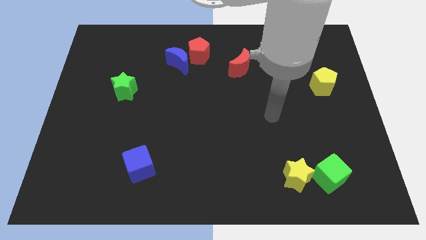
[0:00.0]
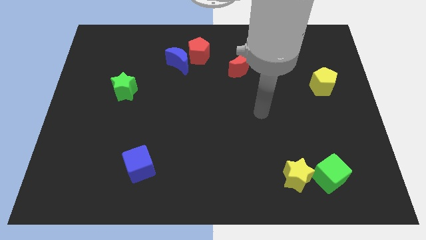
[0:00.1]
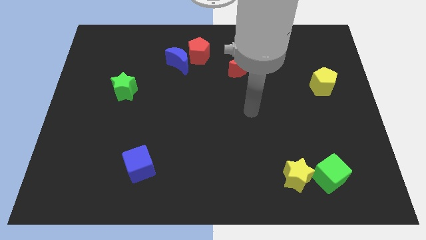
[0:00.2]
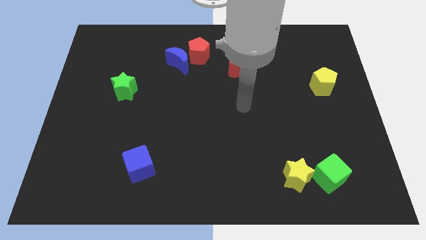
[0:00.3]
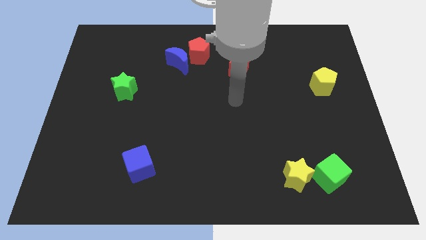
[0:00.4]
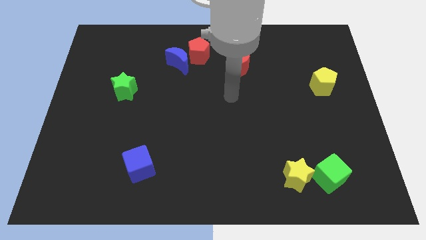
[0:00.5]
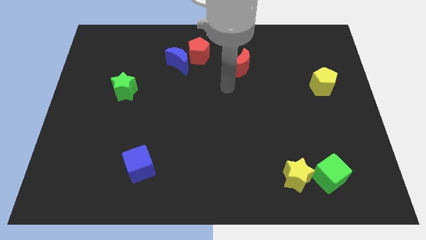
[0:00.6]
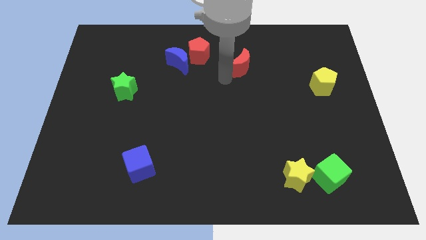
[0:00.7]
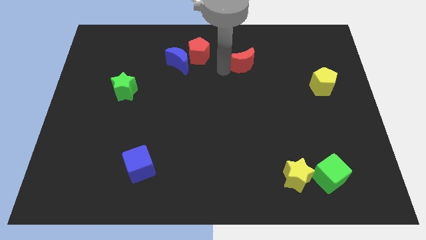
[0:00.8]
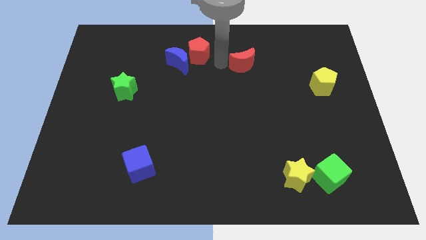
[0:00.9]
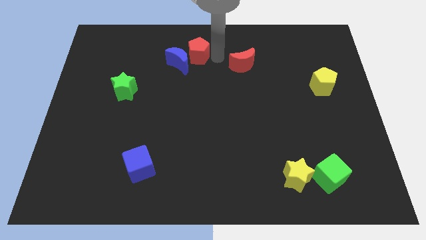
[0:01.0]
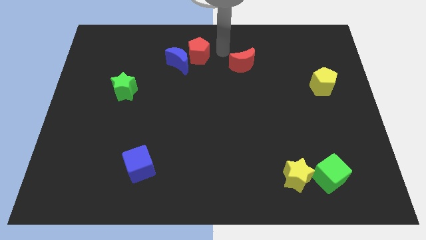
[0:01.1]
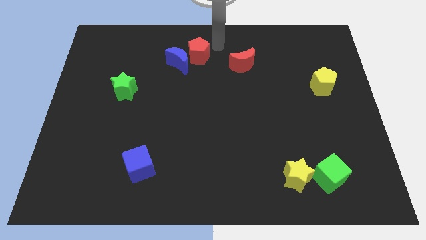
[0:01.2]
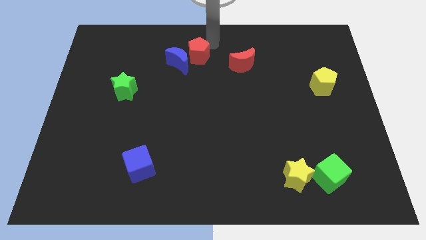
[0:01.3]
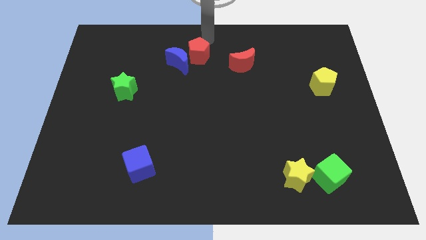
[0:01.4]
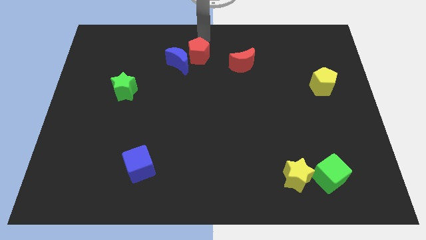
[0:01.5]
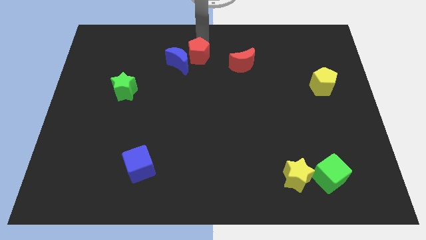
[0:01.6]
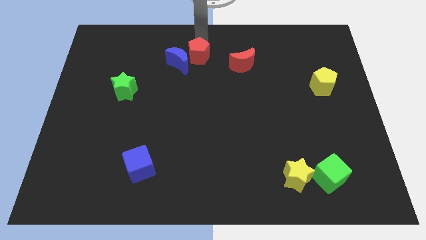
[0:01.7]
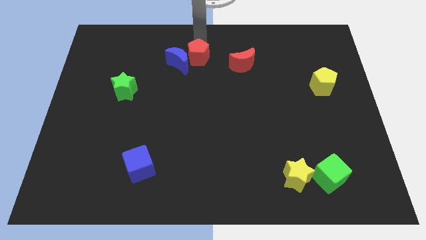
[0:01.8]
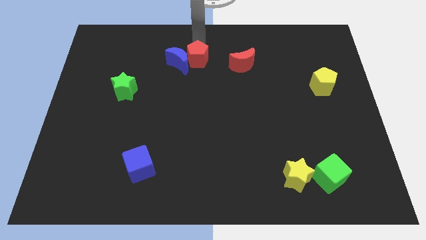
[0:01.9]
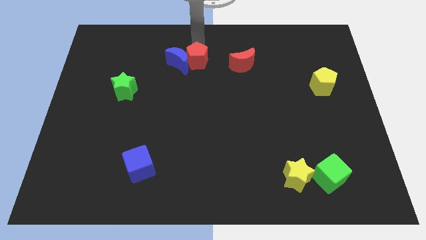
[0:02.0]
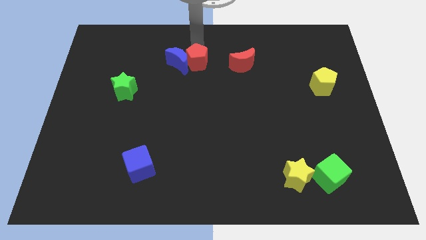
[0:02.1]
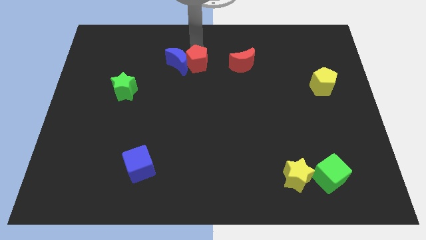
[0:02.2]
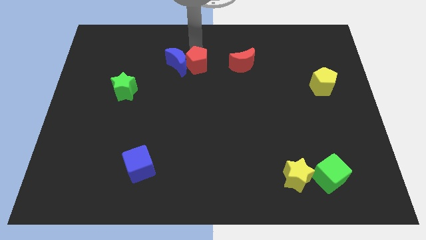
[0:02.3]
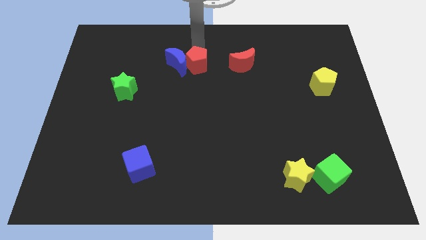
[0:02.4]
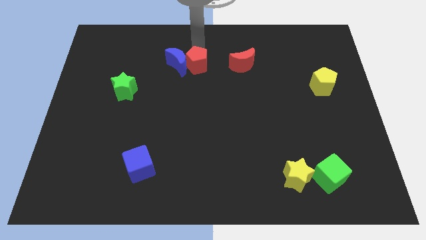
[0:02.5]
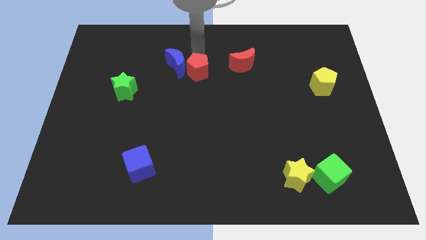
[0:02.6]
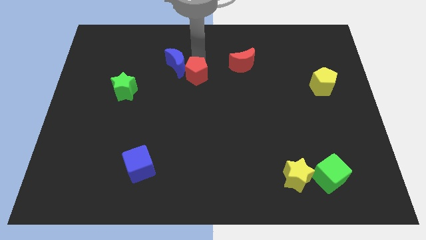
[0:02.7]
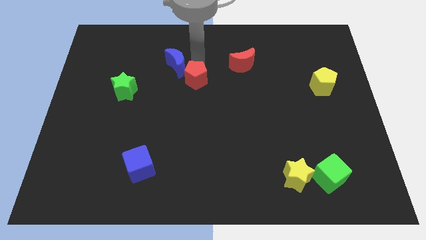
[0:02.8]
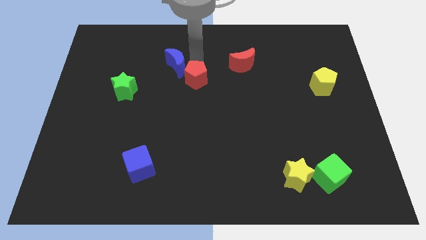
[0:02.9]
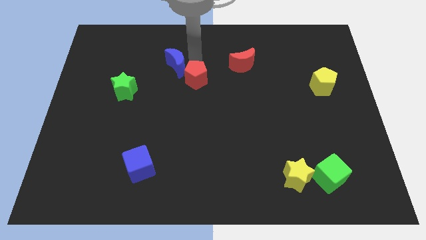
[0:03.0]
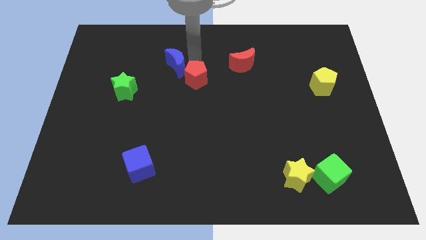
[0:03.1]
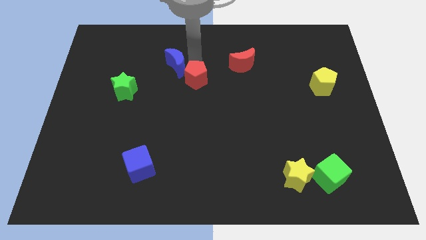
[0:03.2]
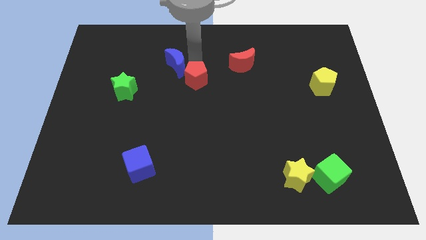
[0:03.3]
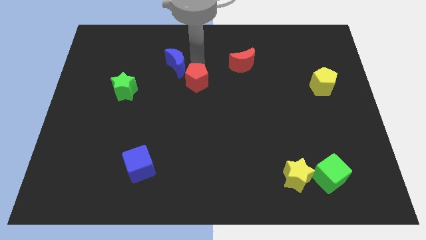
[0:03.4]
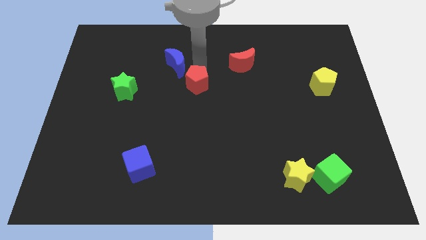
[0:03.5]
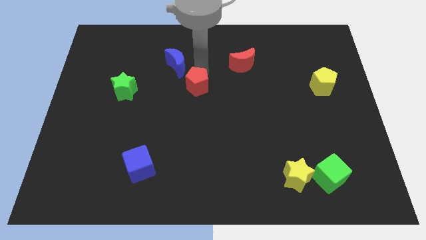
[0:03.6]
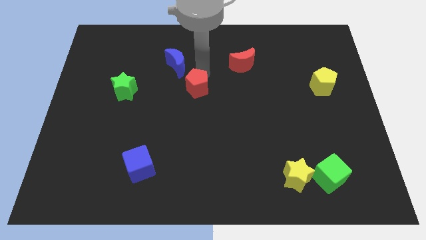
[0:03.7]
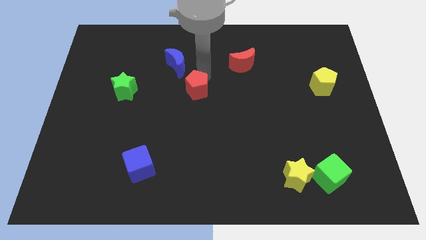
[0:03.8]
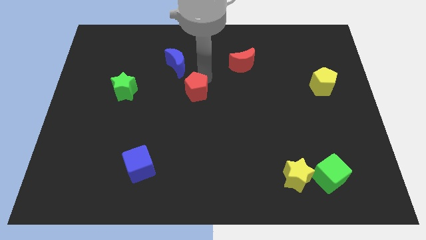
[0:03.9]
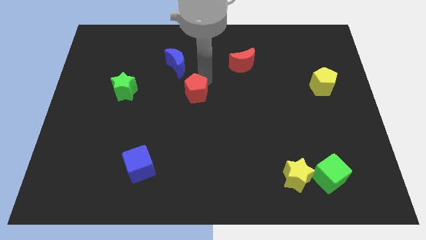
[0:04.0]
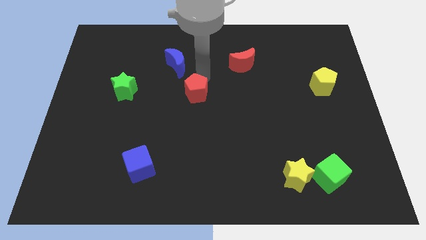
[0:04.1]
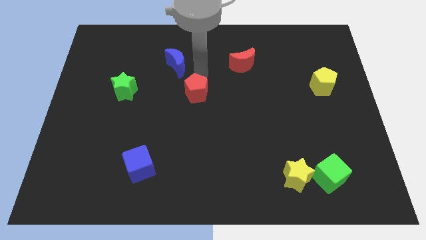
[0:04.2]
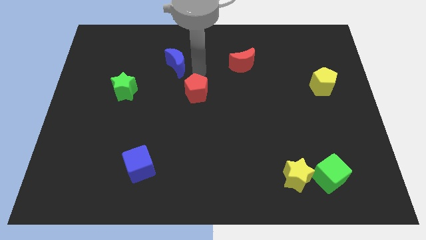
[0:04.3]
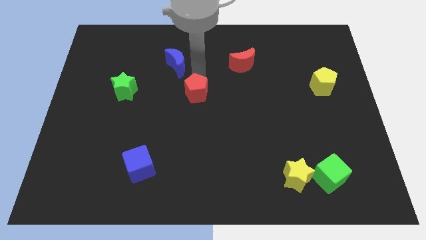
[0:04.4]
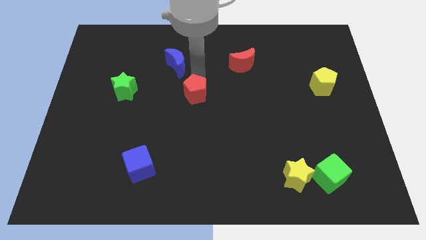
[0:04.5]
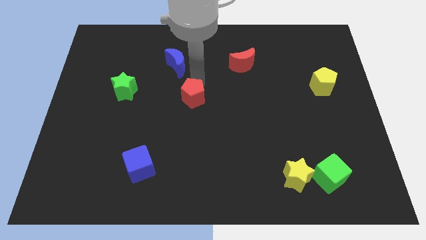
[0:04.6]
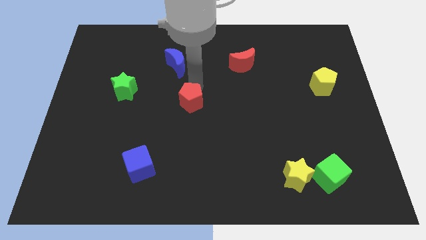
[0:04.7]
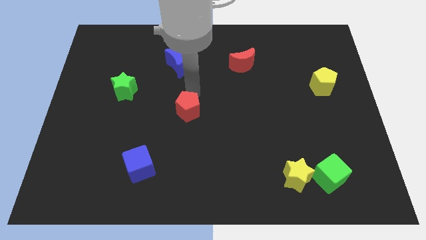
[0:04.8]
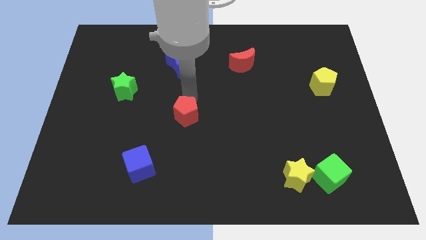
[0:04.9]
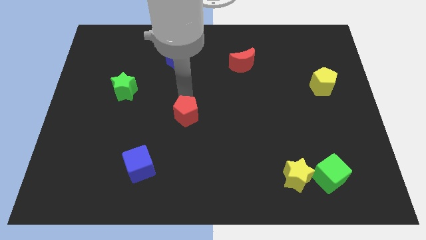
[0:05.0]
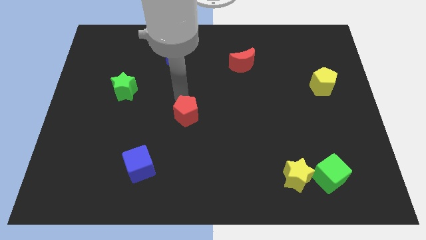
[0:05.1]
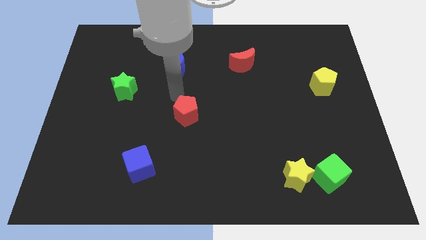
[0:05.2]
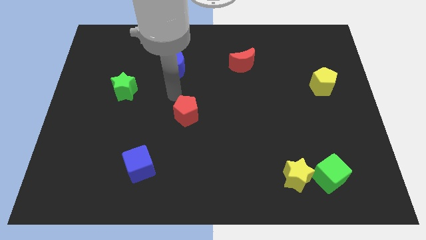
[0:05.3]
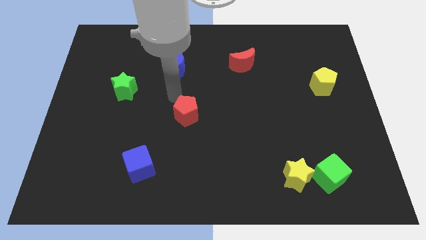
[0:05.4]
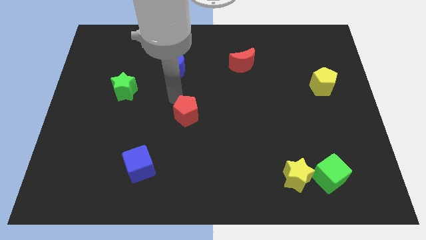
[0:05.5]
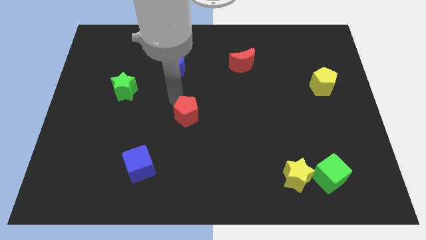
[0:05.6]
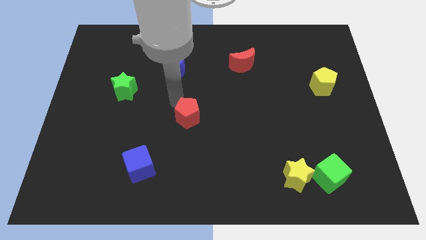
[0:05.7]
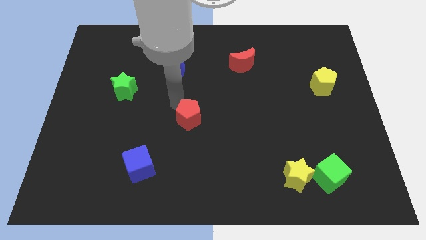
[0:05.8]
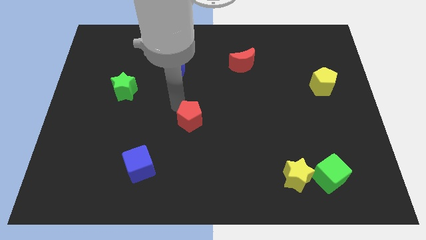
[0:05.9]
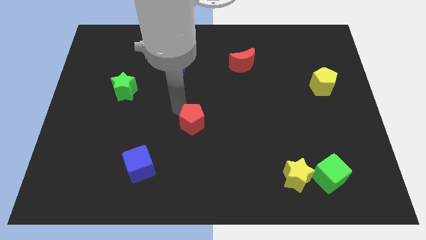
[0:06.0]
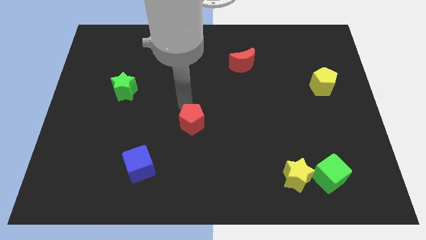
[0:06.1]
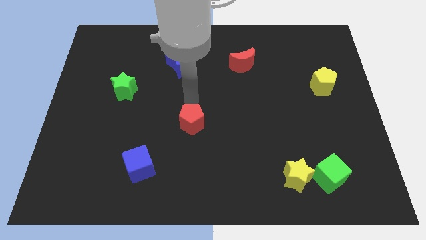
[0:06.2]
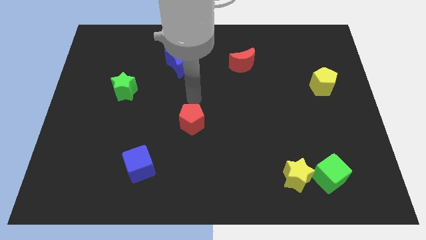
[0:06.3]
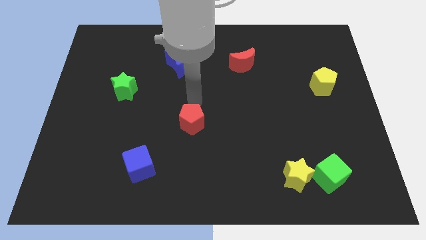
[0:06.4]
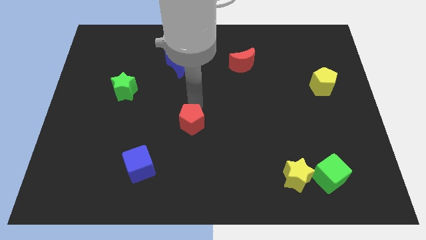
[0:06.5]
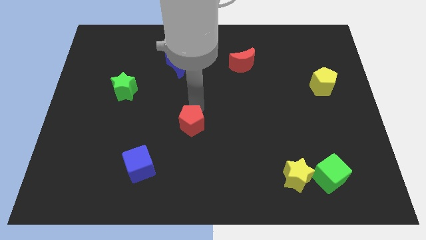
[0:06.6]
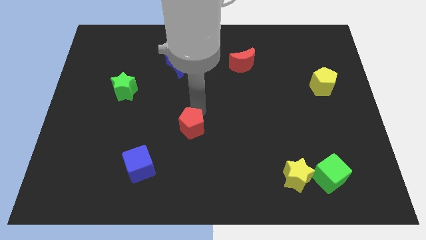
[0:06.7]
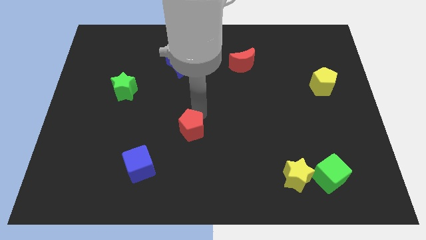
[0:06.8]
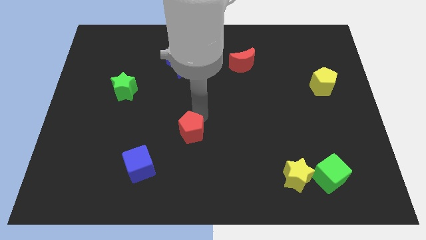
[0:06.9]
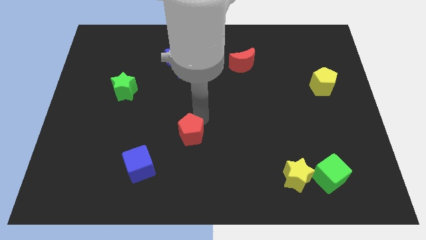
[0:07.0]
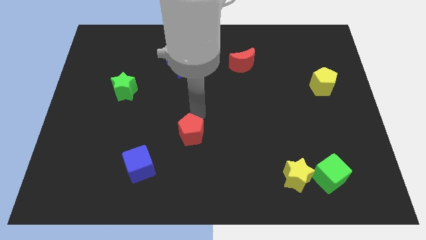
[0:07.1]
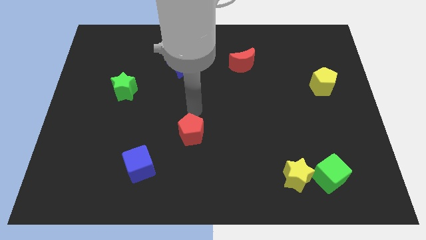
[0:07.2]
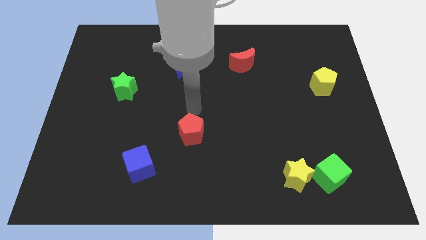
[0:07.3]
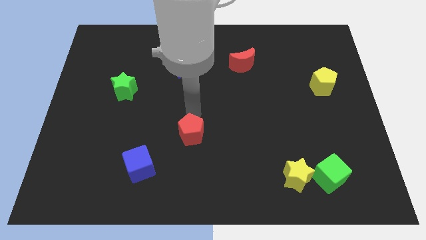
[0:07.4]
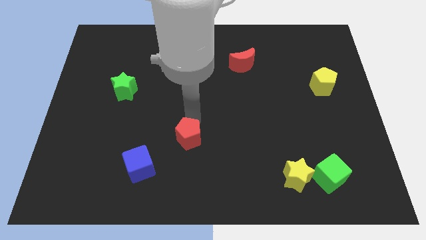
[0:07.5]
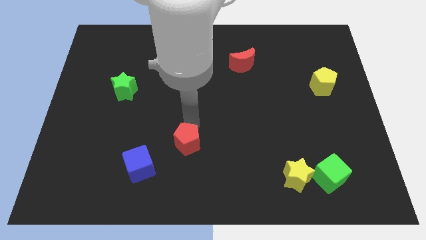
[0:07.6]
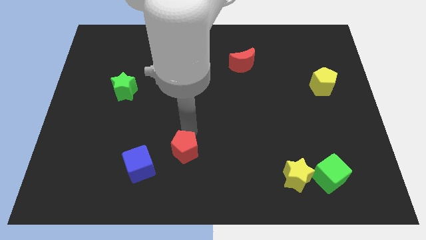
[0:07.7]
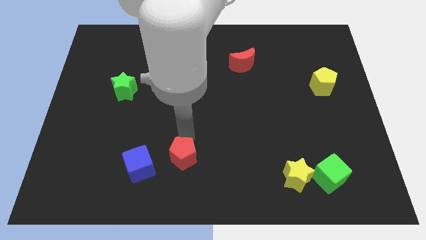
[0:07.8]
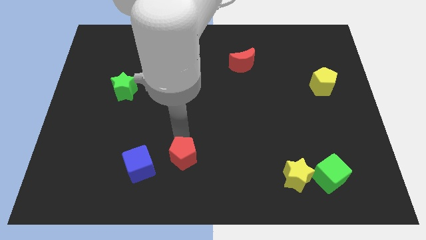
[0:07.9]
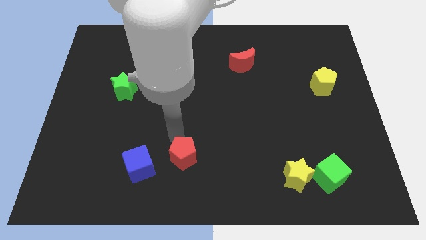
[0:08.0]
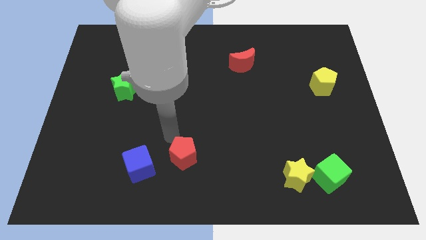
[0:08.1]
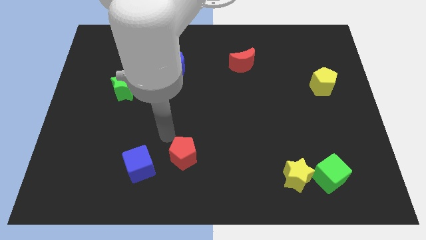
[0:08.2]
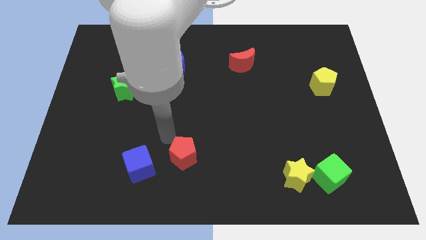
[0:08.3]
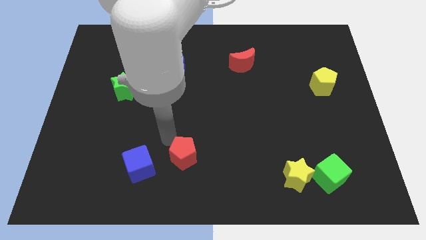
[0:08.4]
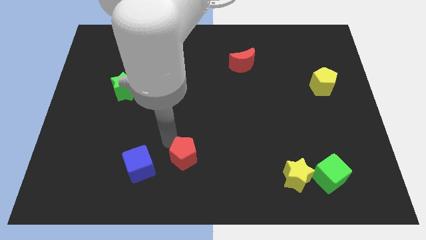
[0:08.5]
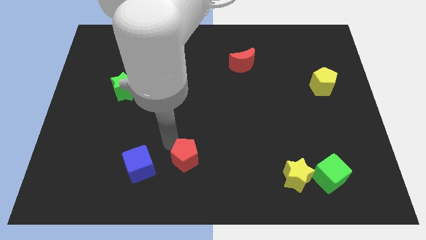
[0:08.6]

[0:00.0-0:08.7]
move the red pentagon to the bottom side
